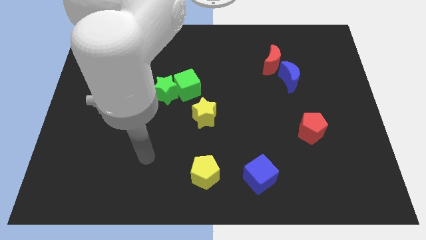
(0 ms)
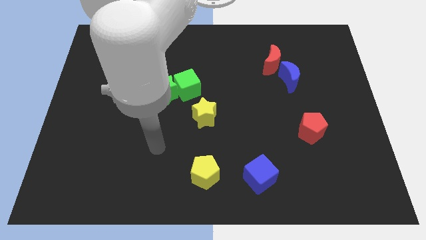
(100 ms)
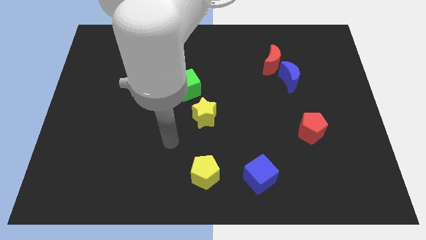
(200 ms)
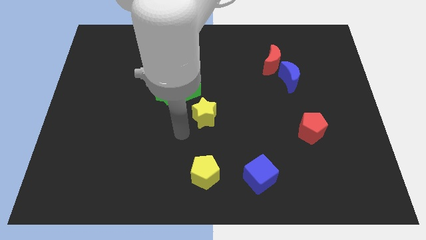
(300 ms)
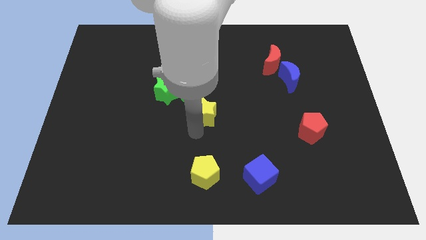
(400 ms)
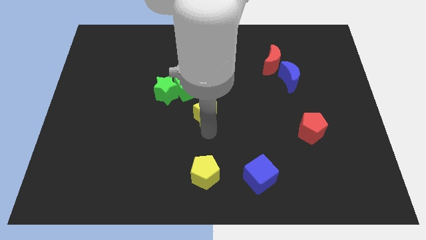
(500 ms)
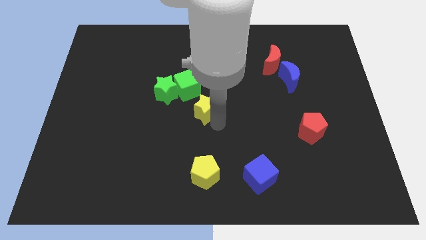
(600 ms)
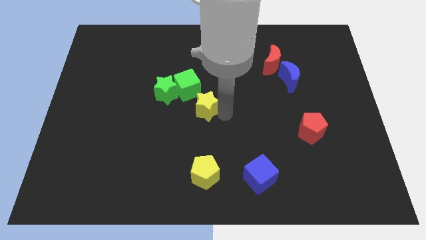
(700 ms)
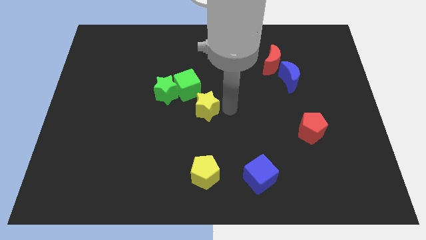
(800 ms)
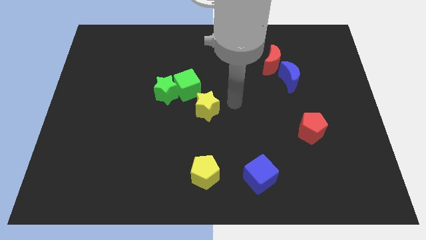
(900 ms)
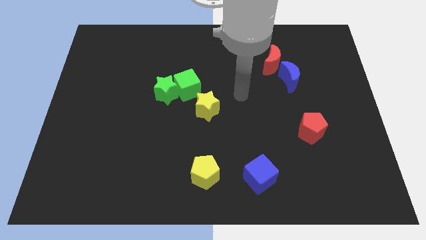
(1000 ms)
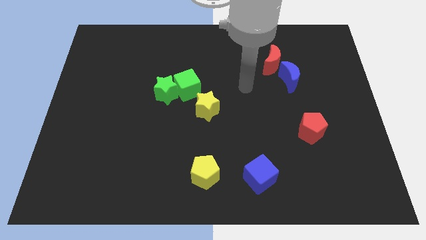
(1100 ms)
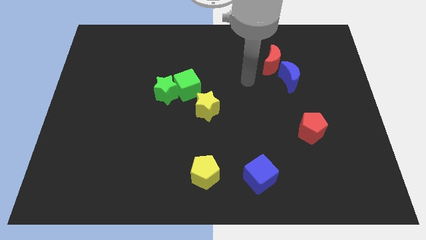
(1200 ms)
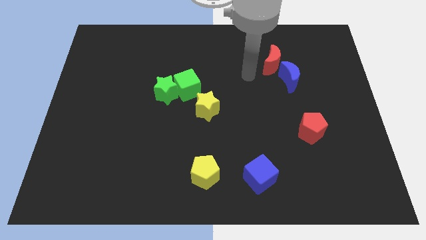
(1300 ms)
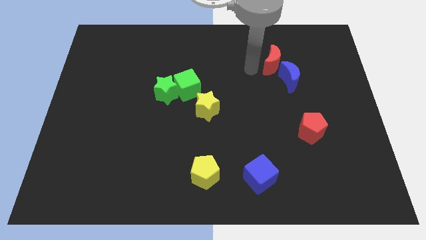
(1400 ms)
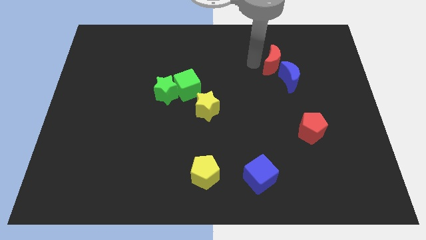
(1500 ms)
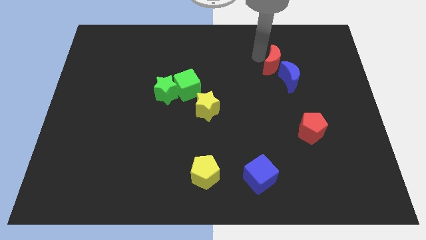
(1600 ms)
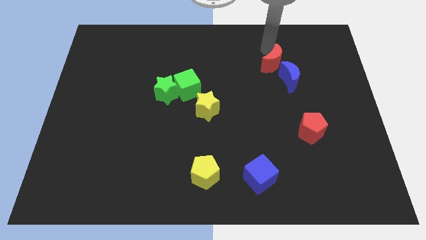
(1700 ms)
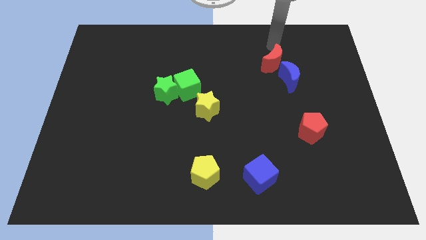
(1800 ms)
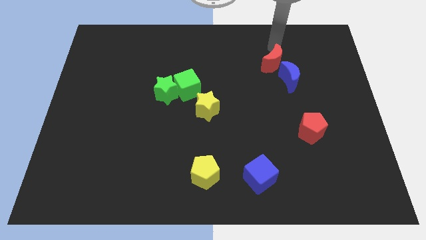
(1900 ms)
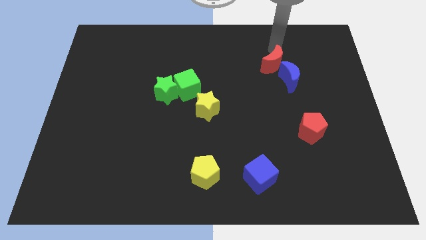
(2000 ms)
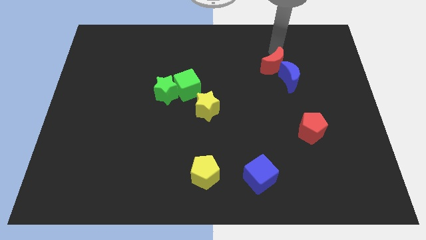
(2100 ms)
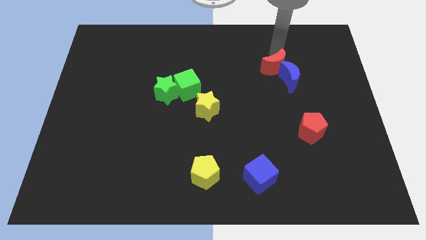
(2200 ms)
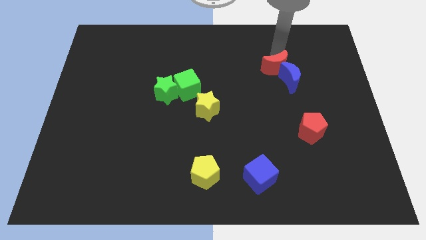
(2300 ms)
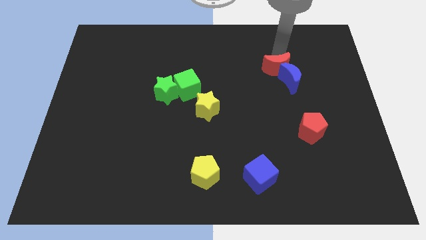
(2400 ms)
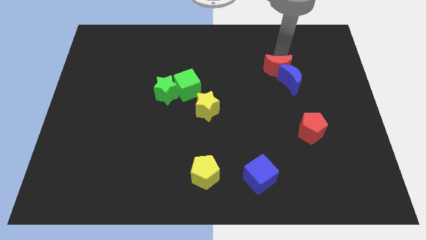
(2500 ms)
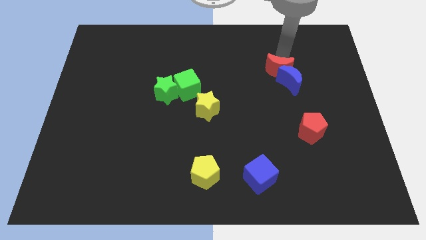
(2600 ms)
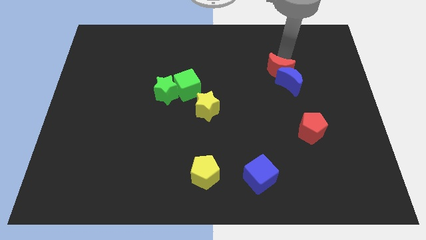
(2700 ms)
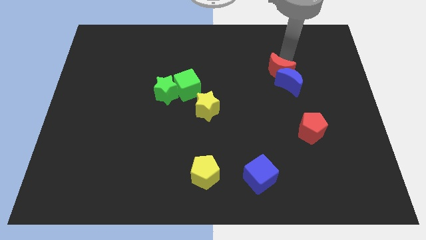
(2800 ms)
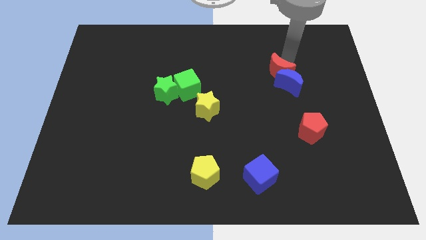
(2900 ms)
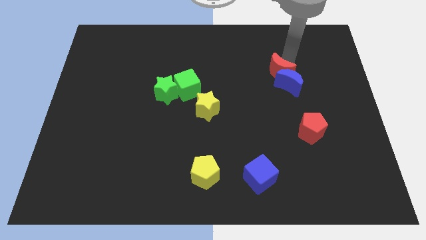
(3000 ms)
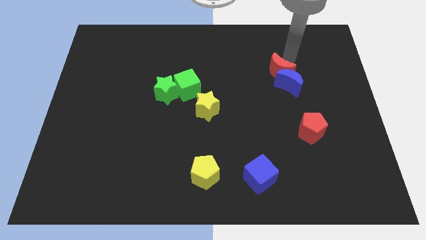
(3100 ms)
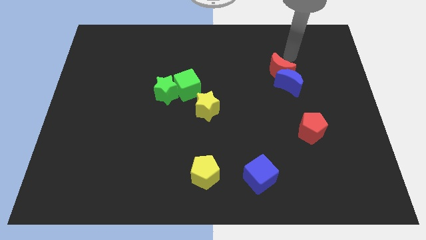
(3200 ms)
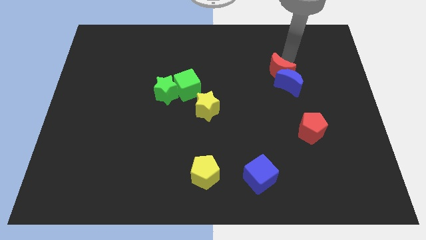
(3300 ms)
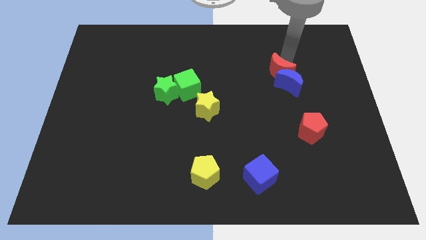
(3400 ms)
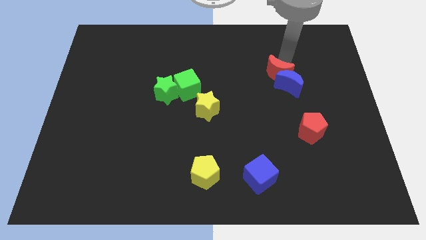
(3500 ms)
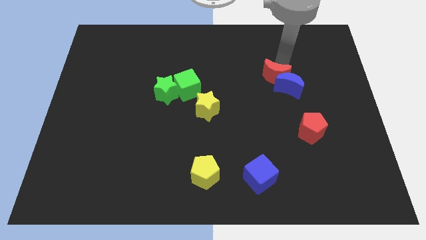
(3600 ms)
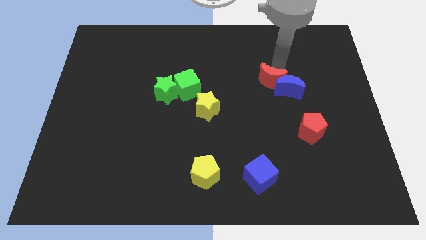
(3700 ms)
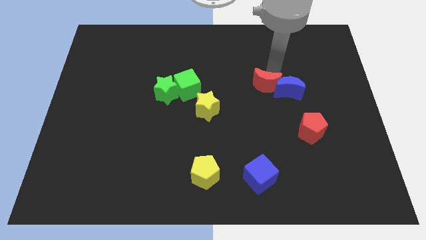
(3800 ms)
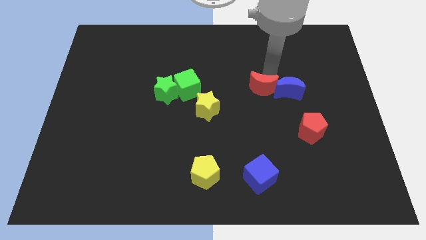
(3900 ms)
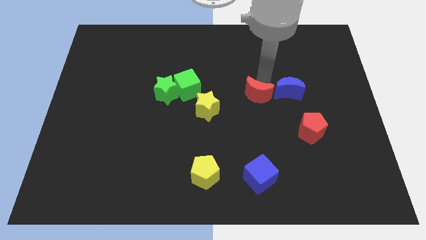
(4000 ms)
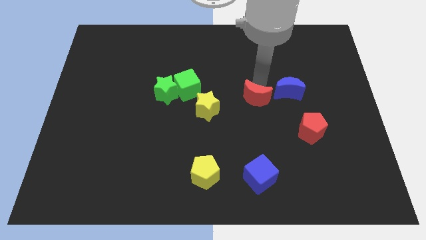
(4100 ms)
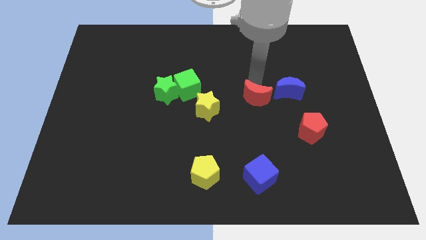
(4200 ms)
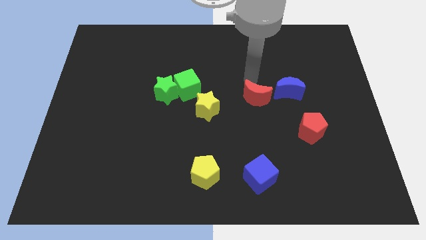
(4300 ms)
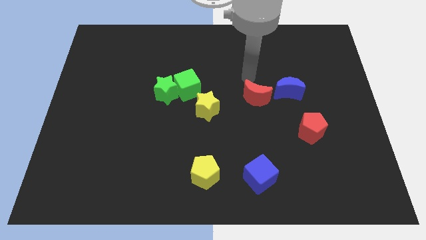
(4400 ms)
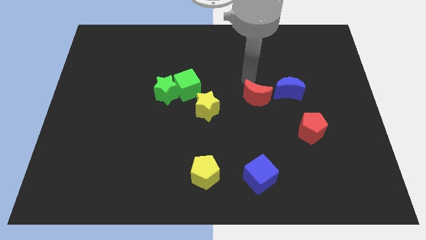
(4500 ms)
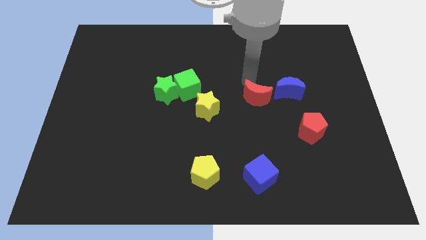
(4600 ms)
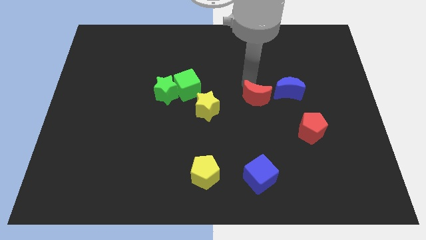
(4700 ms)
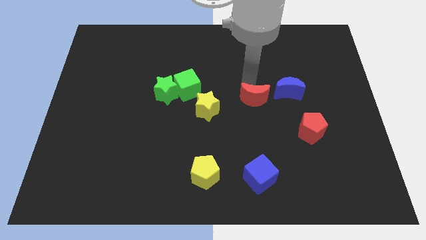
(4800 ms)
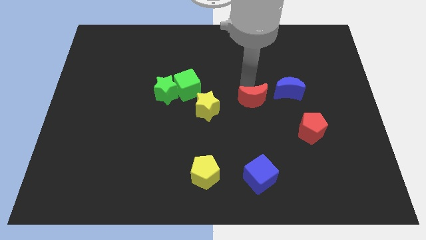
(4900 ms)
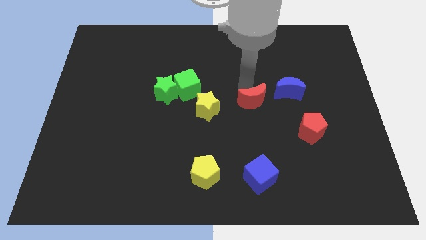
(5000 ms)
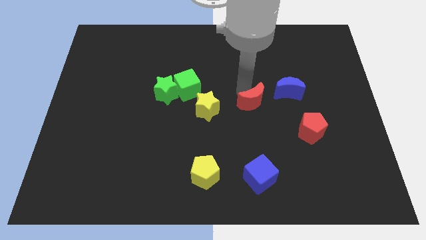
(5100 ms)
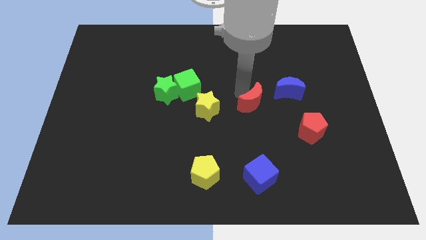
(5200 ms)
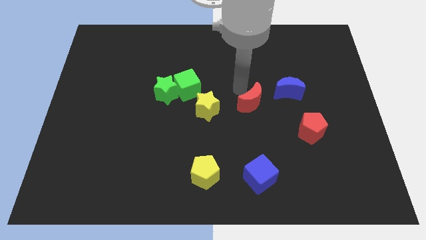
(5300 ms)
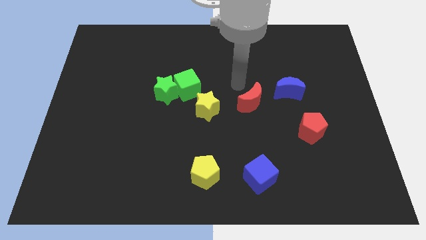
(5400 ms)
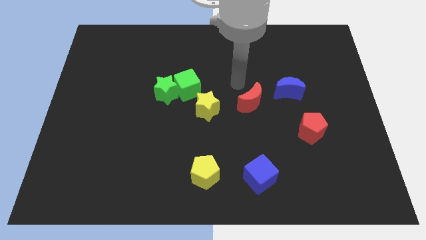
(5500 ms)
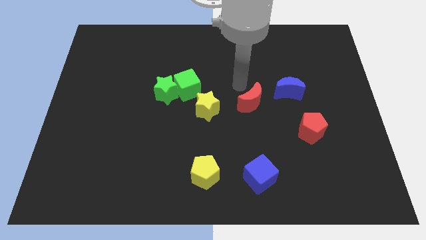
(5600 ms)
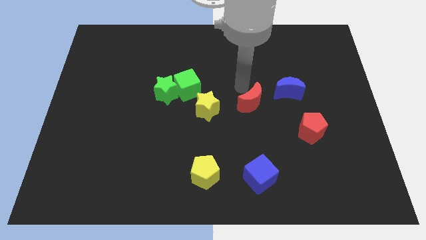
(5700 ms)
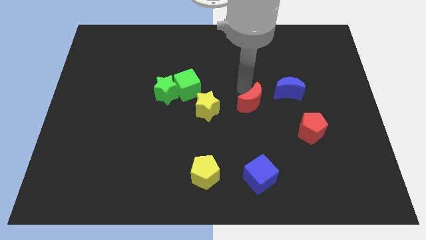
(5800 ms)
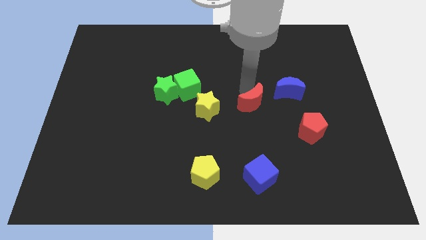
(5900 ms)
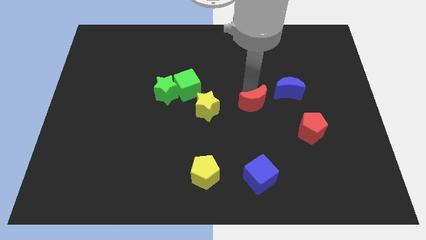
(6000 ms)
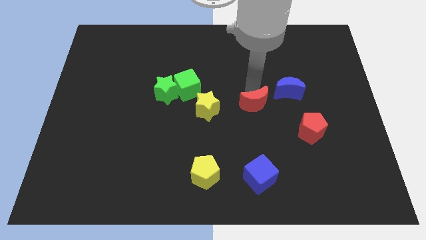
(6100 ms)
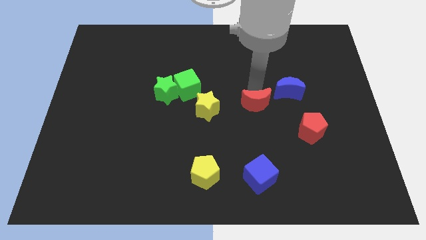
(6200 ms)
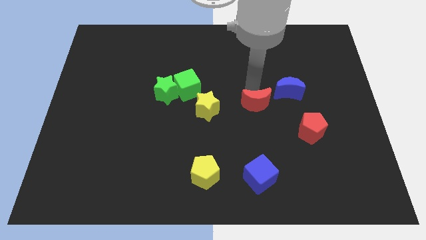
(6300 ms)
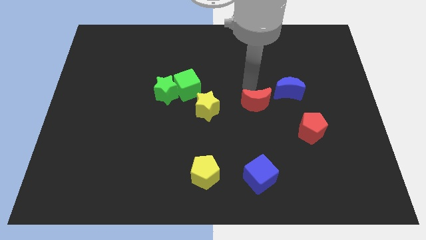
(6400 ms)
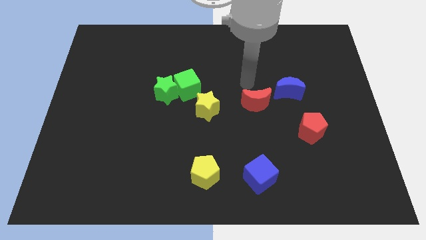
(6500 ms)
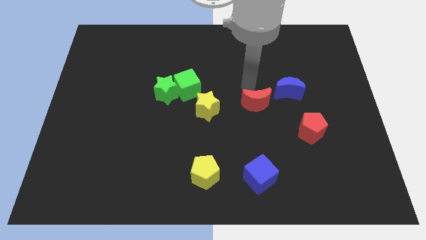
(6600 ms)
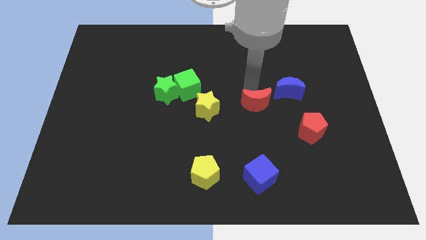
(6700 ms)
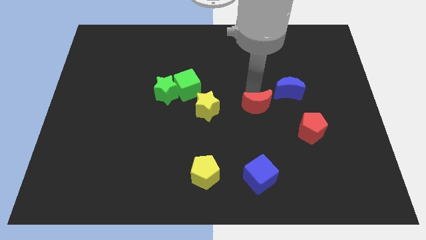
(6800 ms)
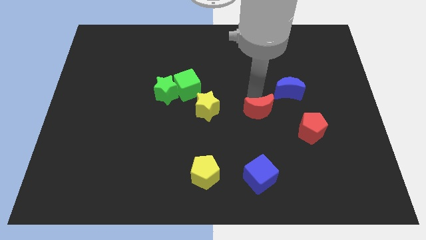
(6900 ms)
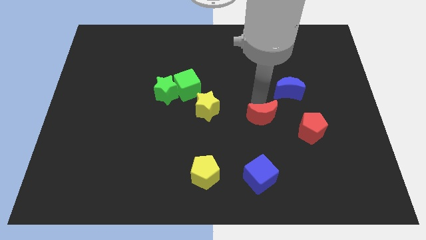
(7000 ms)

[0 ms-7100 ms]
move the red moon to the top side of the blue cube
